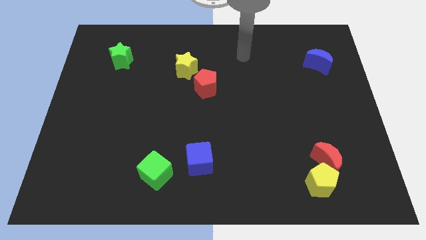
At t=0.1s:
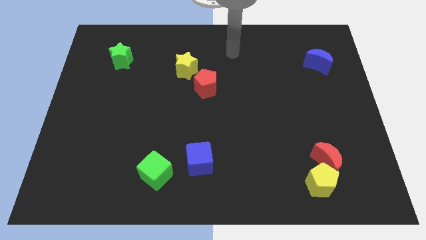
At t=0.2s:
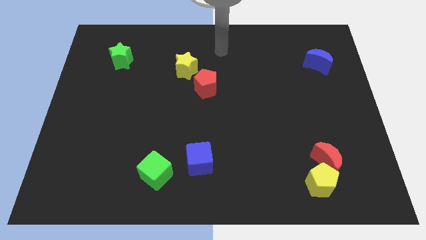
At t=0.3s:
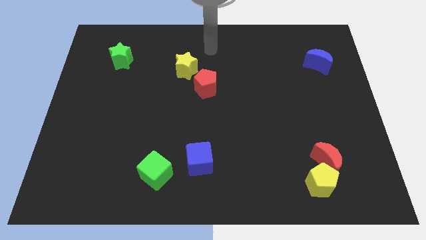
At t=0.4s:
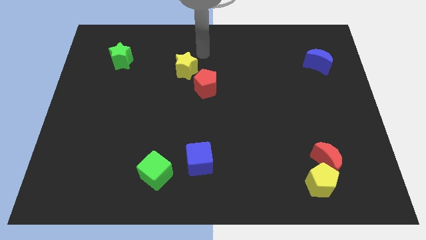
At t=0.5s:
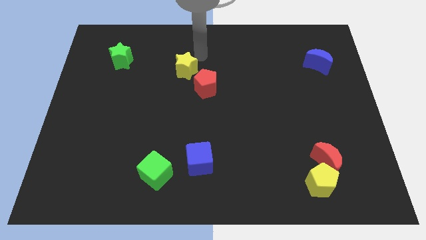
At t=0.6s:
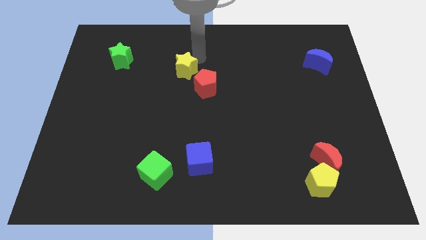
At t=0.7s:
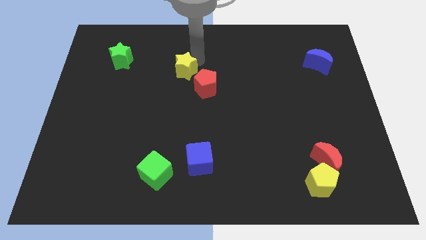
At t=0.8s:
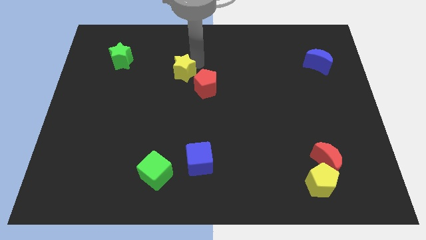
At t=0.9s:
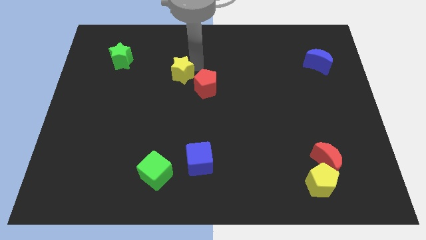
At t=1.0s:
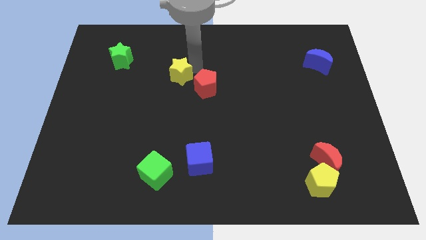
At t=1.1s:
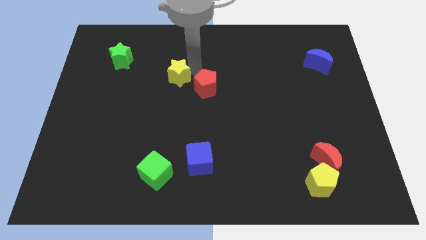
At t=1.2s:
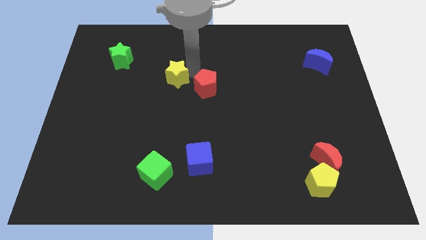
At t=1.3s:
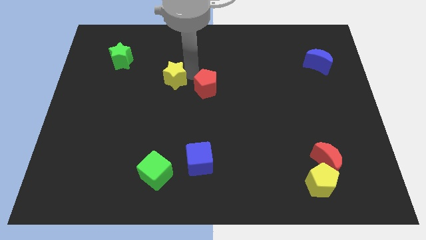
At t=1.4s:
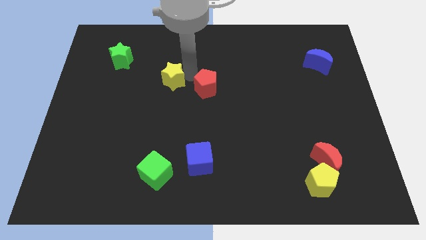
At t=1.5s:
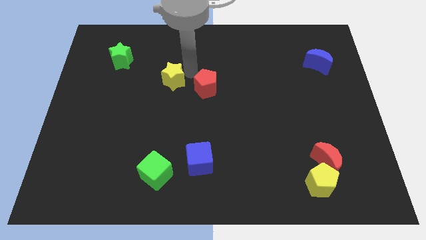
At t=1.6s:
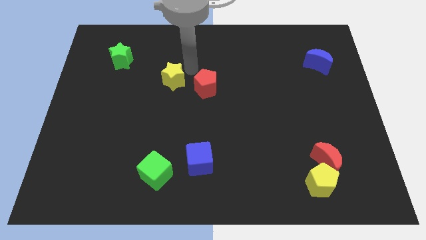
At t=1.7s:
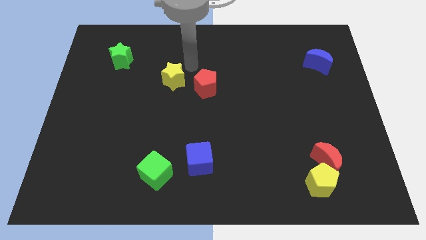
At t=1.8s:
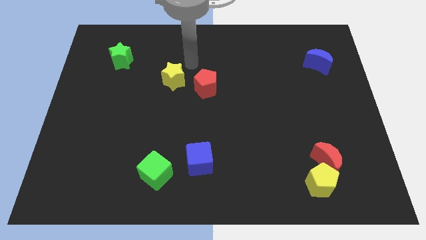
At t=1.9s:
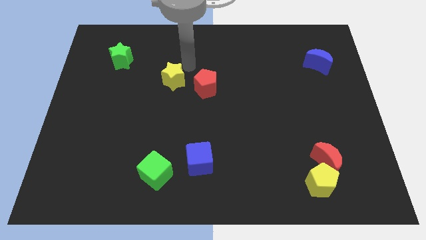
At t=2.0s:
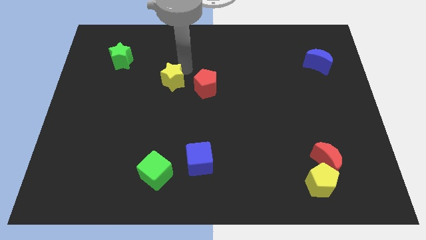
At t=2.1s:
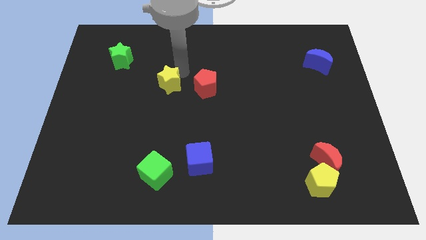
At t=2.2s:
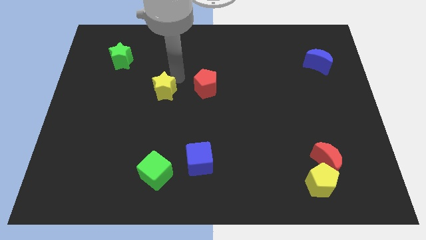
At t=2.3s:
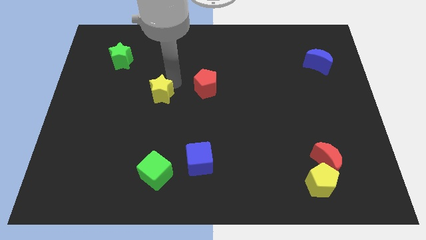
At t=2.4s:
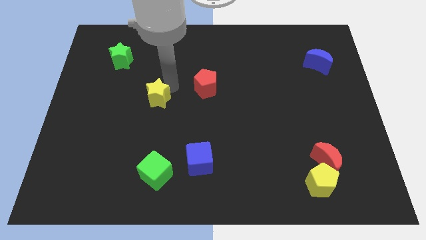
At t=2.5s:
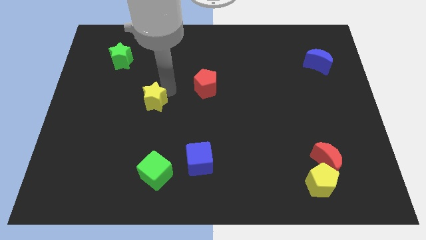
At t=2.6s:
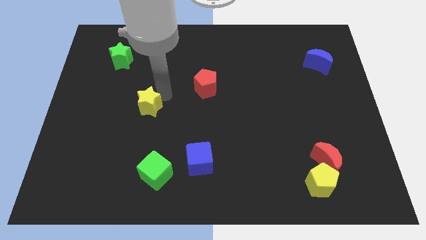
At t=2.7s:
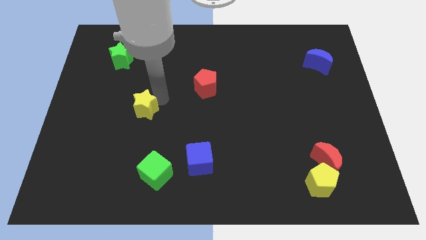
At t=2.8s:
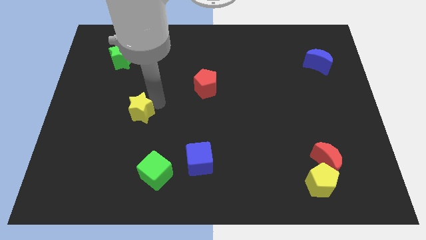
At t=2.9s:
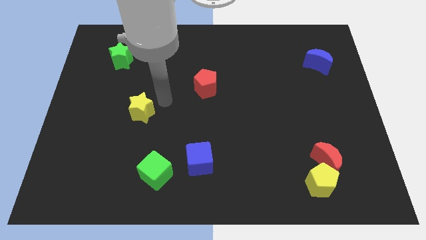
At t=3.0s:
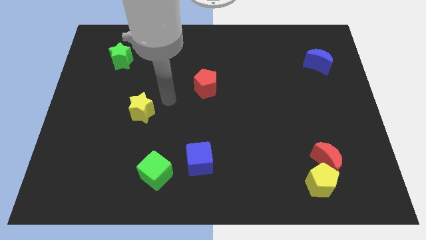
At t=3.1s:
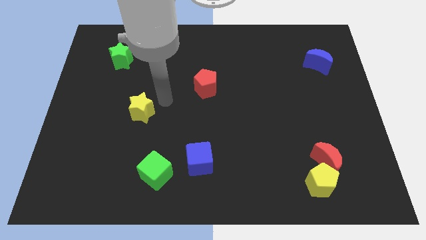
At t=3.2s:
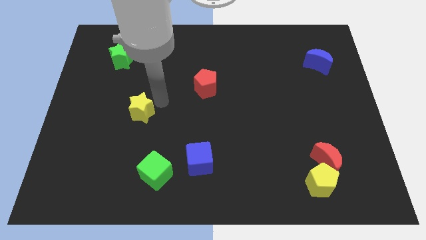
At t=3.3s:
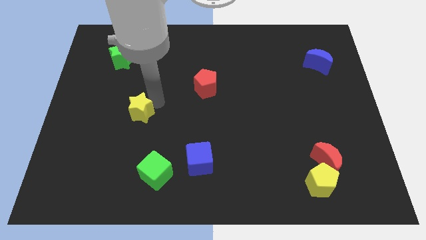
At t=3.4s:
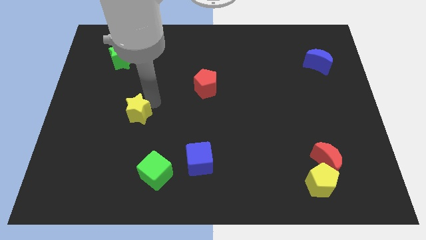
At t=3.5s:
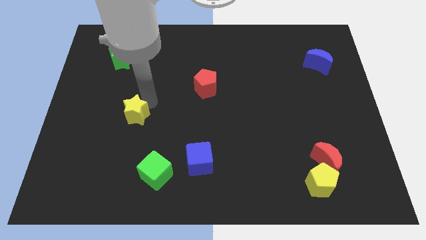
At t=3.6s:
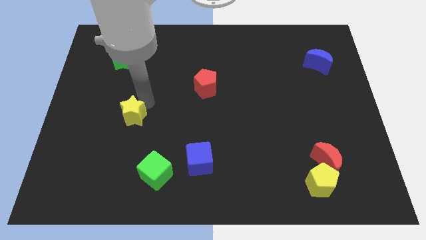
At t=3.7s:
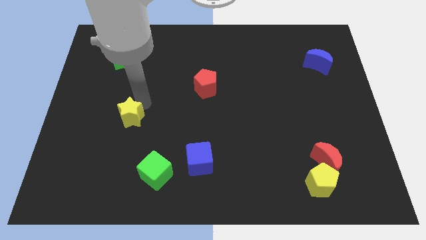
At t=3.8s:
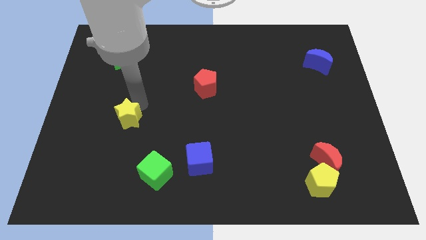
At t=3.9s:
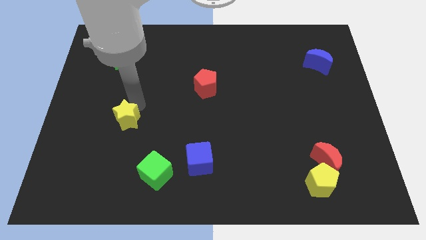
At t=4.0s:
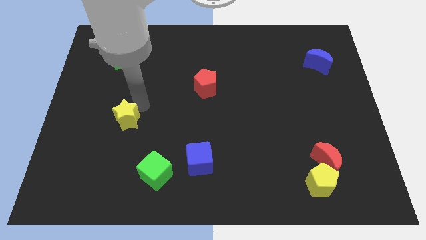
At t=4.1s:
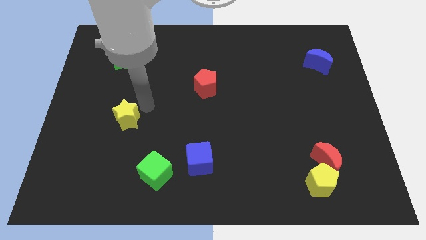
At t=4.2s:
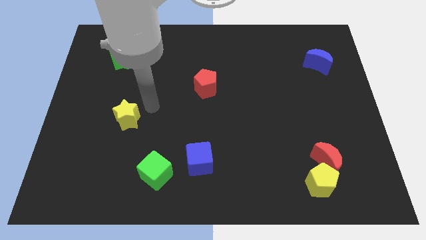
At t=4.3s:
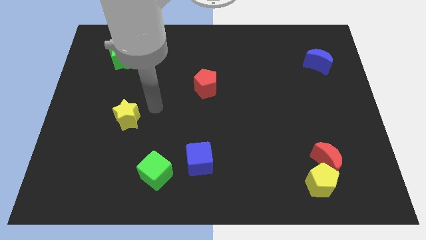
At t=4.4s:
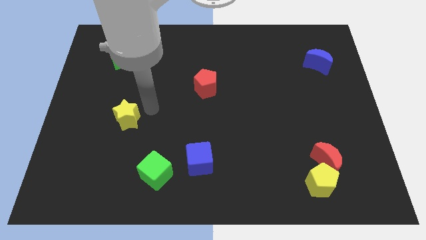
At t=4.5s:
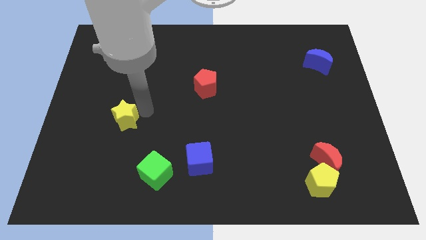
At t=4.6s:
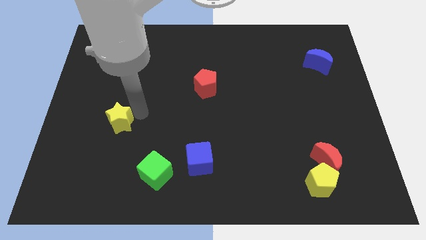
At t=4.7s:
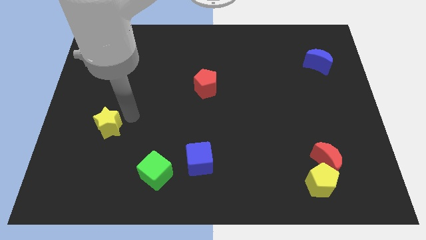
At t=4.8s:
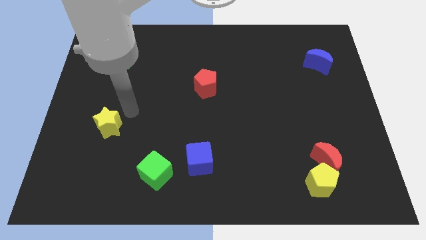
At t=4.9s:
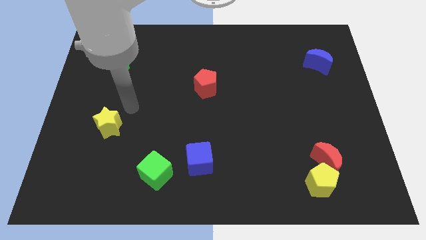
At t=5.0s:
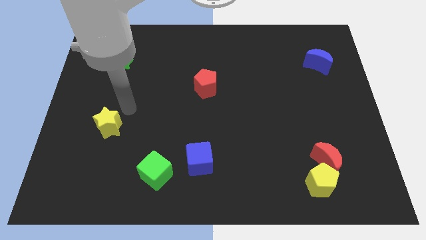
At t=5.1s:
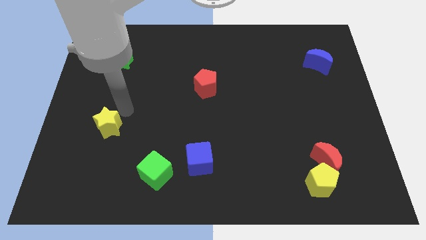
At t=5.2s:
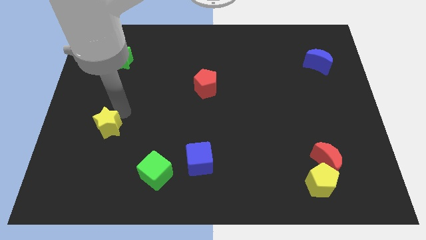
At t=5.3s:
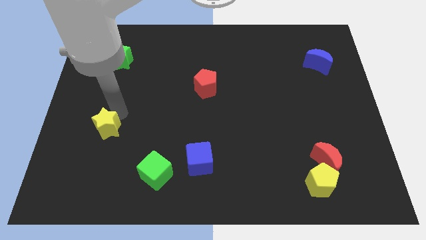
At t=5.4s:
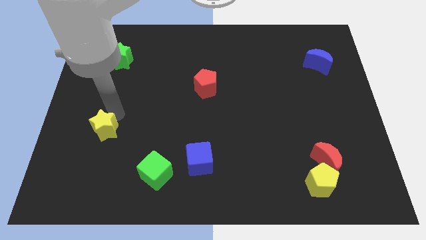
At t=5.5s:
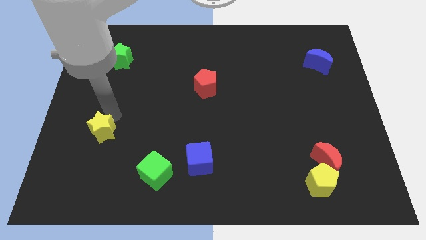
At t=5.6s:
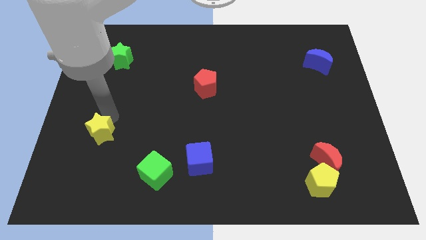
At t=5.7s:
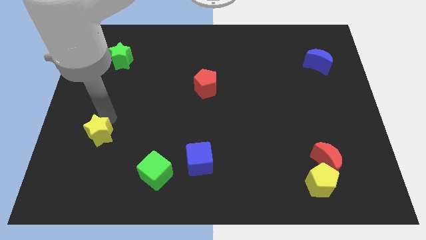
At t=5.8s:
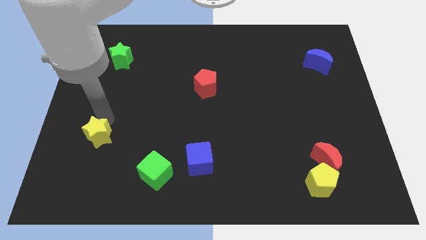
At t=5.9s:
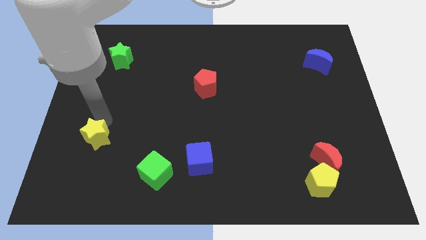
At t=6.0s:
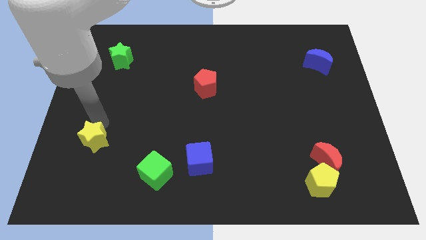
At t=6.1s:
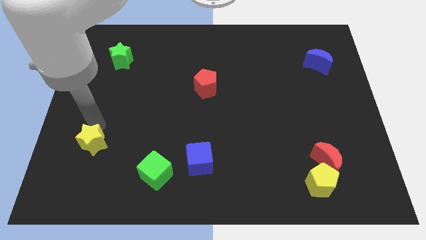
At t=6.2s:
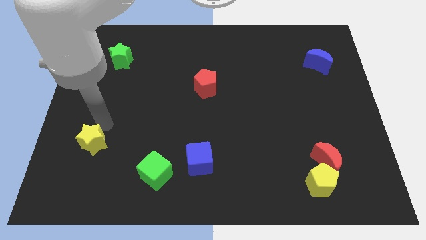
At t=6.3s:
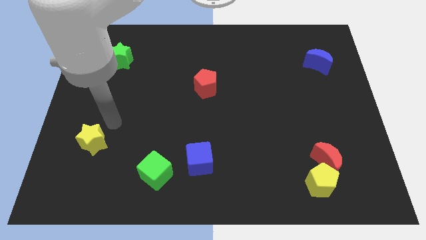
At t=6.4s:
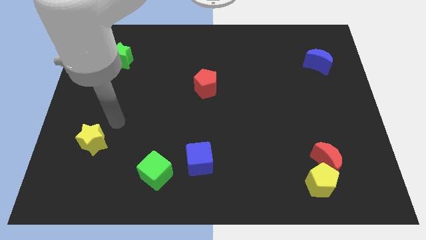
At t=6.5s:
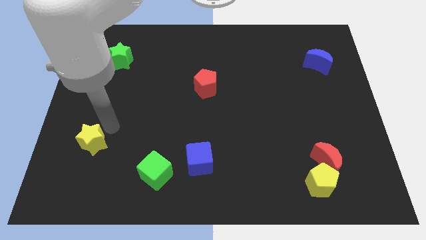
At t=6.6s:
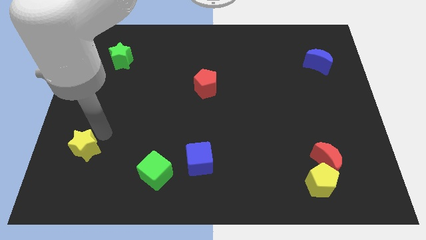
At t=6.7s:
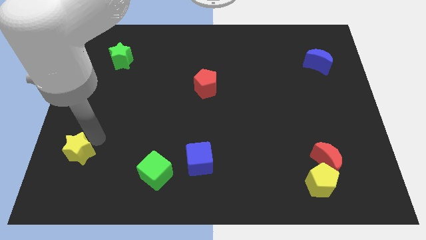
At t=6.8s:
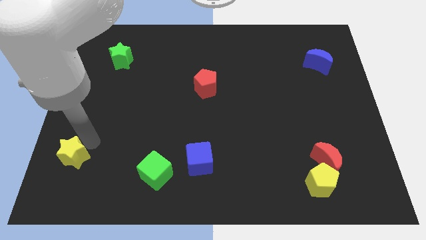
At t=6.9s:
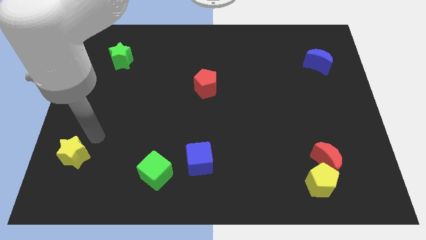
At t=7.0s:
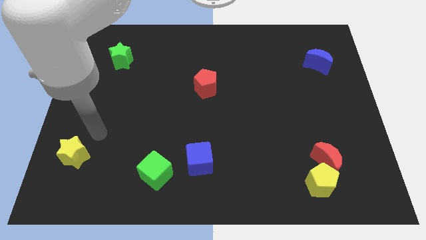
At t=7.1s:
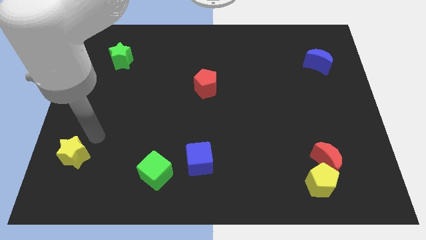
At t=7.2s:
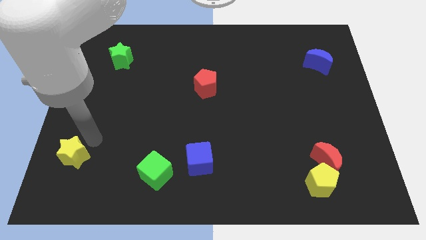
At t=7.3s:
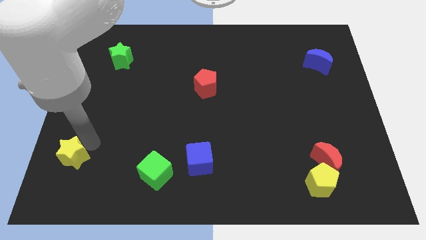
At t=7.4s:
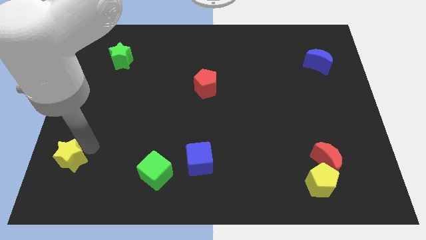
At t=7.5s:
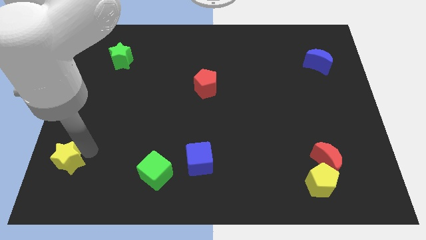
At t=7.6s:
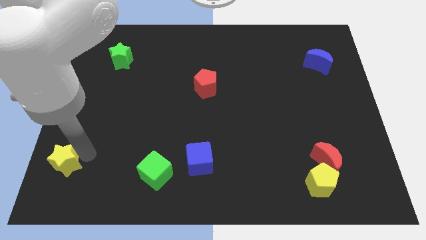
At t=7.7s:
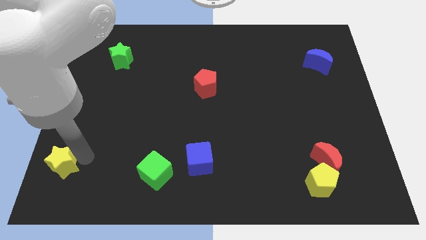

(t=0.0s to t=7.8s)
put the yellow star to the bottom left corner

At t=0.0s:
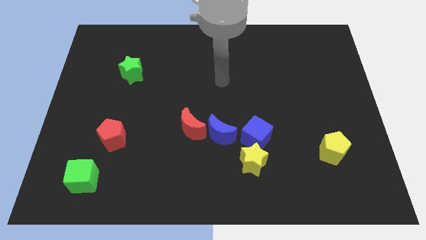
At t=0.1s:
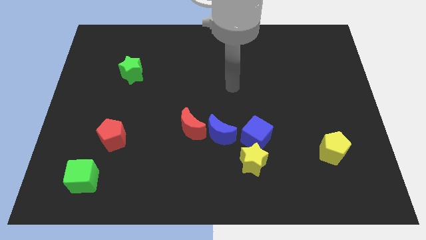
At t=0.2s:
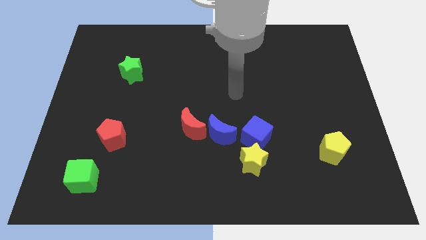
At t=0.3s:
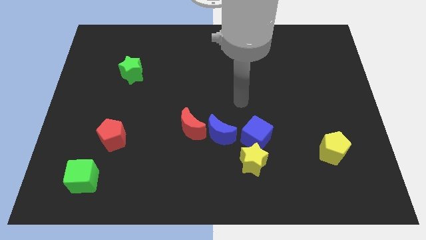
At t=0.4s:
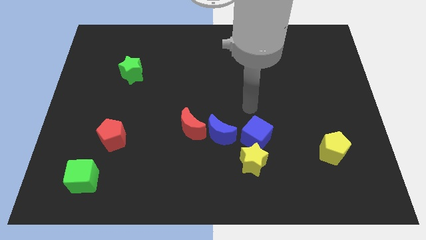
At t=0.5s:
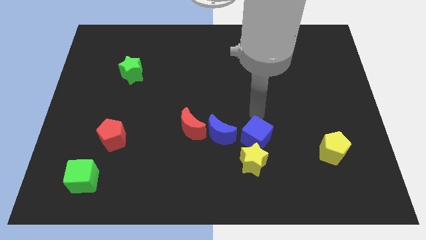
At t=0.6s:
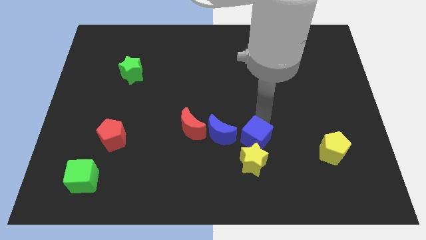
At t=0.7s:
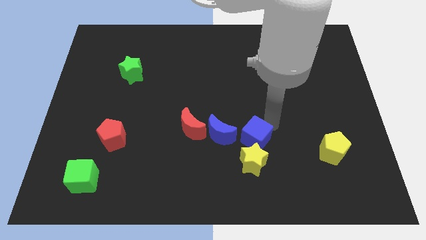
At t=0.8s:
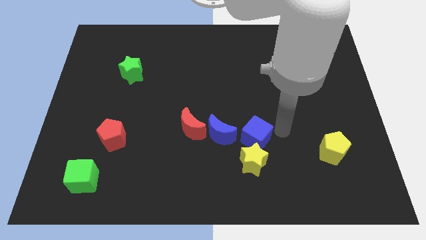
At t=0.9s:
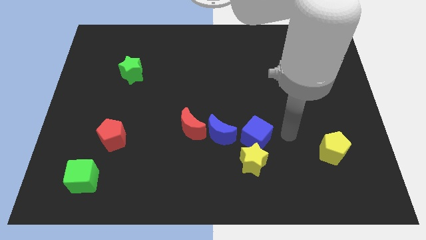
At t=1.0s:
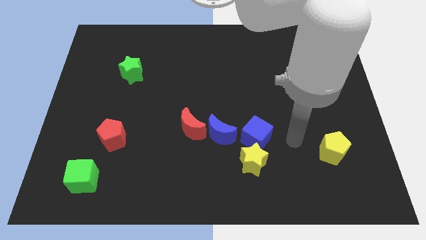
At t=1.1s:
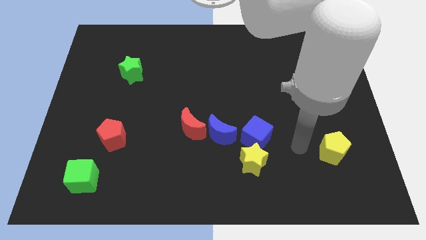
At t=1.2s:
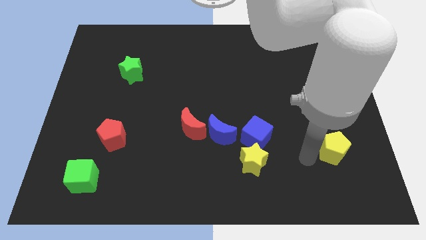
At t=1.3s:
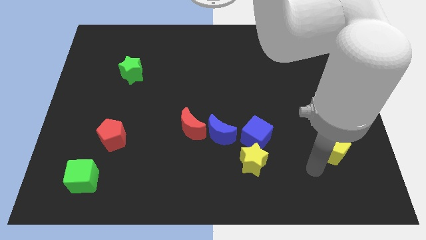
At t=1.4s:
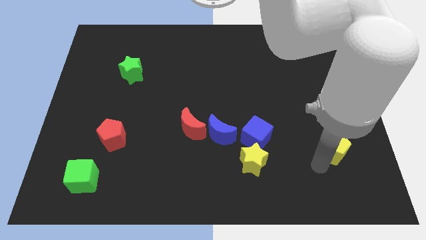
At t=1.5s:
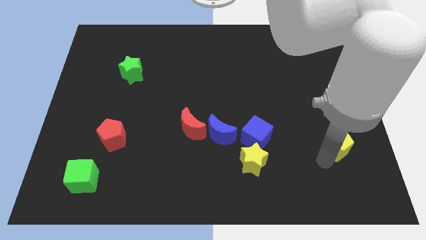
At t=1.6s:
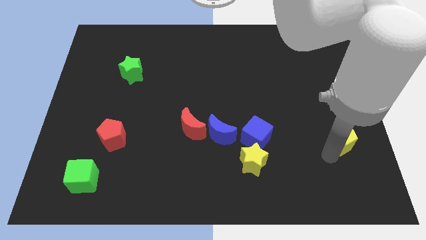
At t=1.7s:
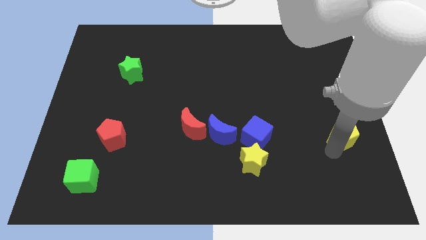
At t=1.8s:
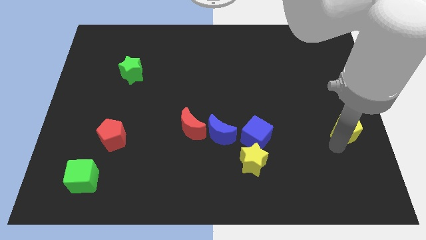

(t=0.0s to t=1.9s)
put the yellow pentagon to the center right
